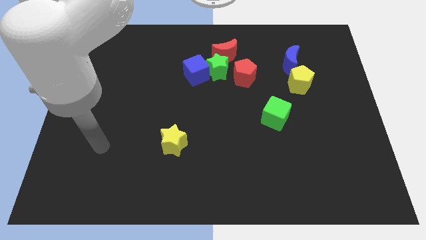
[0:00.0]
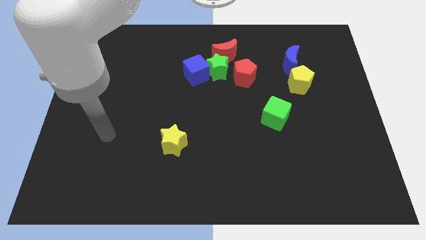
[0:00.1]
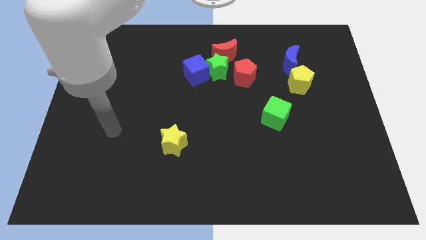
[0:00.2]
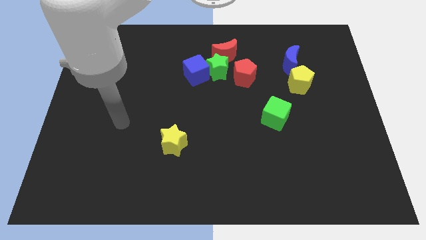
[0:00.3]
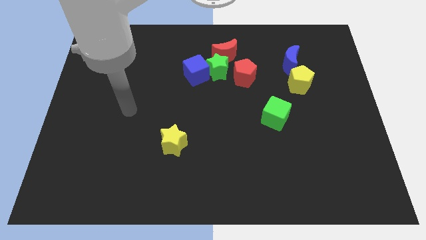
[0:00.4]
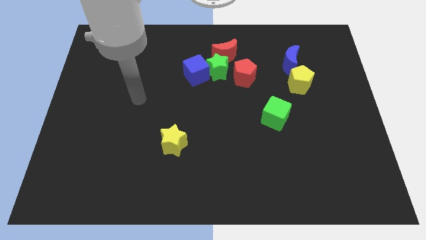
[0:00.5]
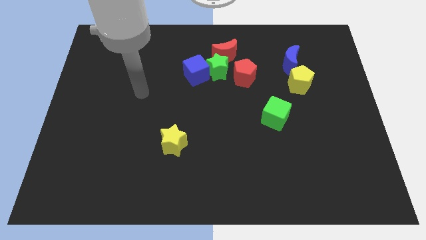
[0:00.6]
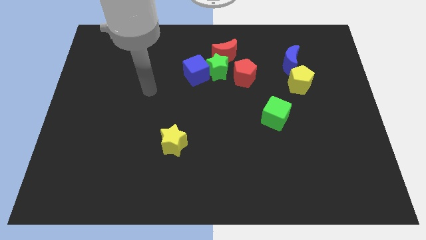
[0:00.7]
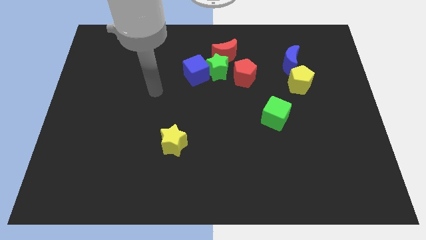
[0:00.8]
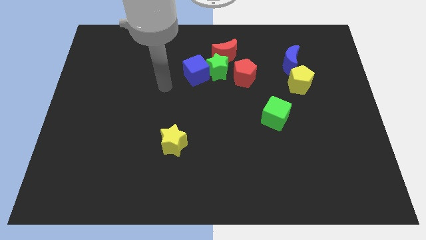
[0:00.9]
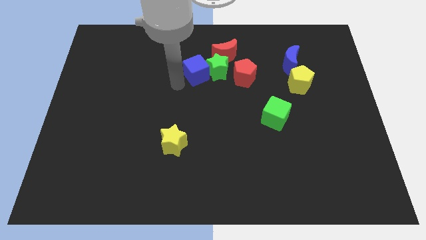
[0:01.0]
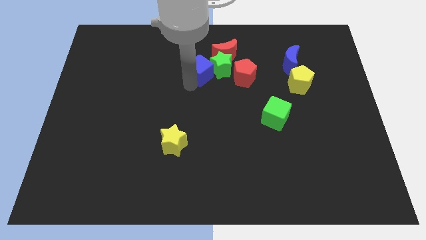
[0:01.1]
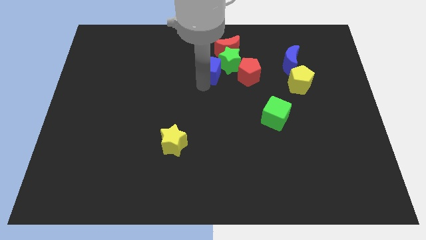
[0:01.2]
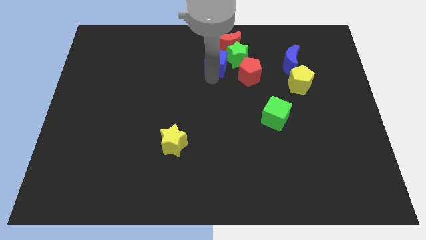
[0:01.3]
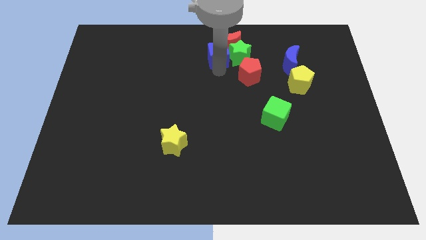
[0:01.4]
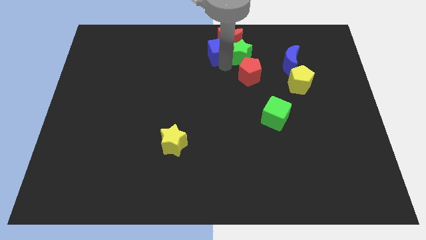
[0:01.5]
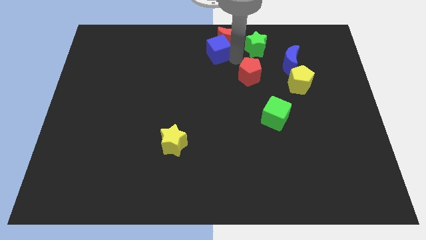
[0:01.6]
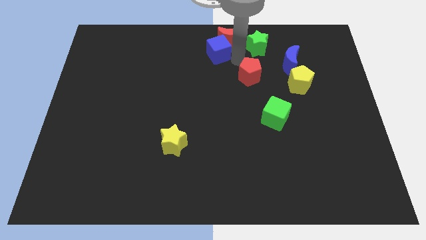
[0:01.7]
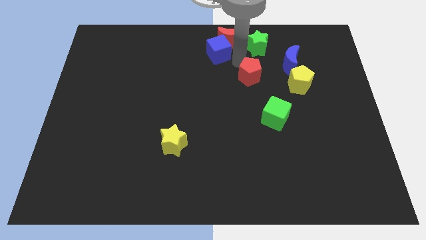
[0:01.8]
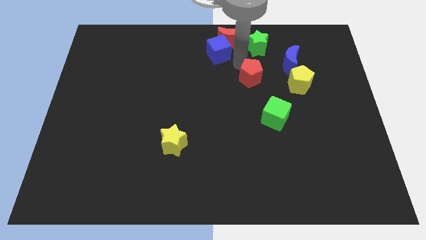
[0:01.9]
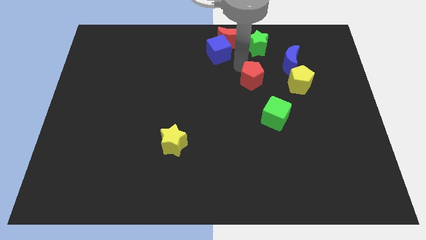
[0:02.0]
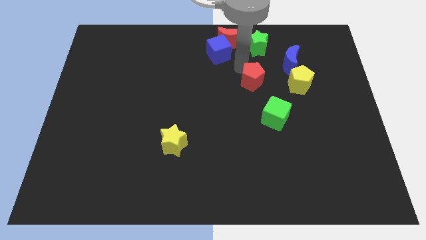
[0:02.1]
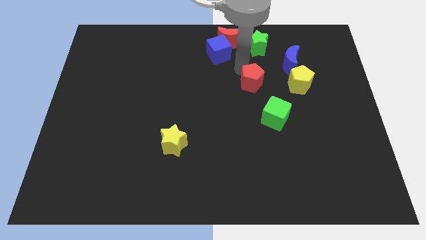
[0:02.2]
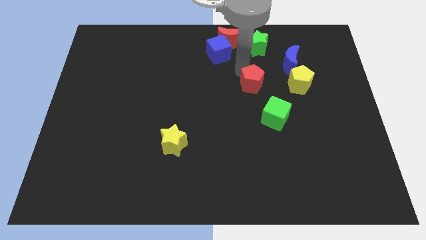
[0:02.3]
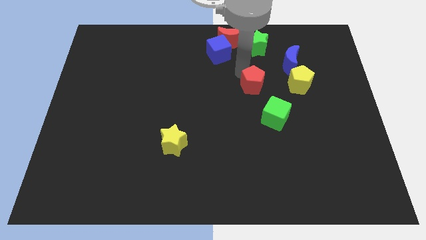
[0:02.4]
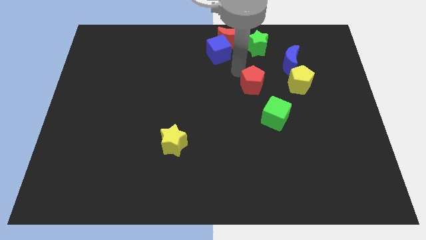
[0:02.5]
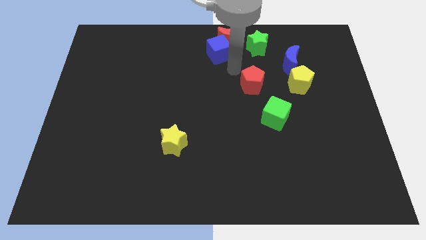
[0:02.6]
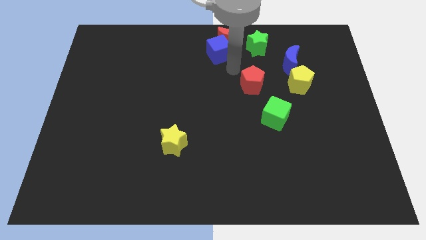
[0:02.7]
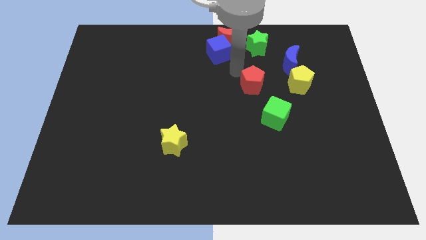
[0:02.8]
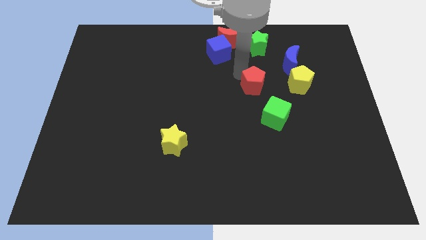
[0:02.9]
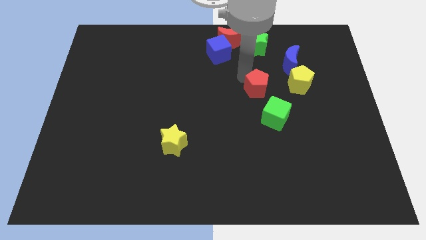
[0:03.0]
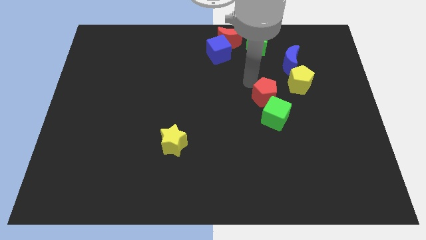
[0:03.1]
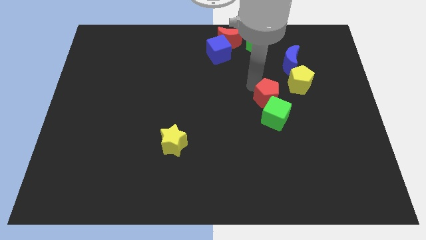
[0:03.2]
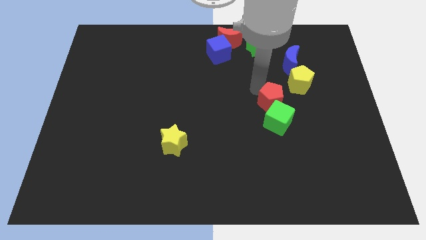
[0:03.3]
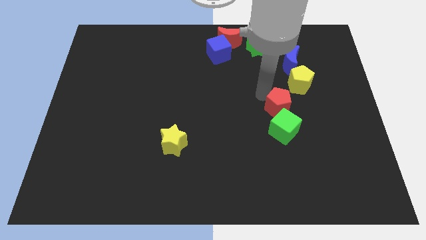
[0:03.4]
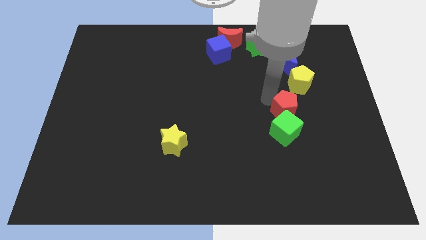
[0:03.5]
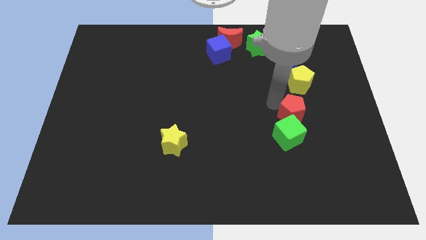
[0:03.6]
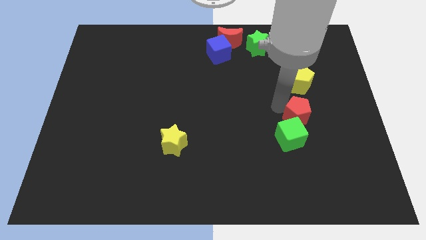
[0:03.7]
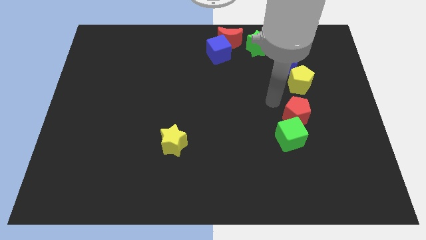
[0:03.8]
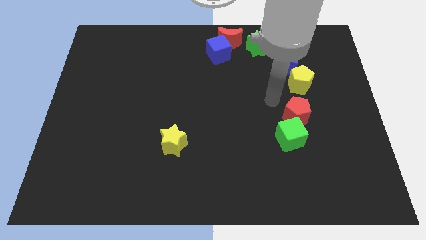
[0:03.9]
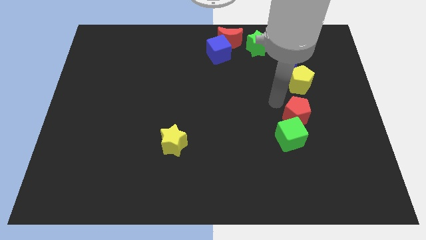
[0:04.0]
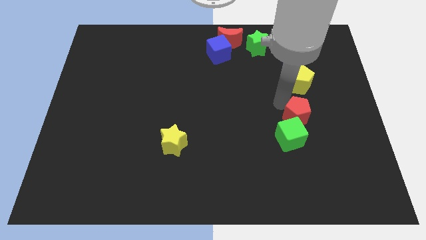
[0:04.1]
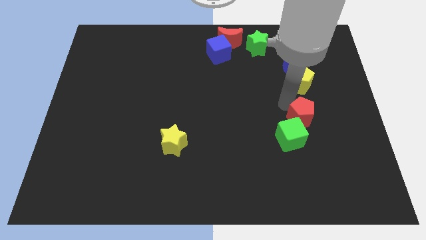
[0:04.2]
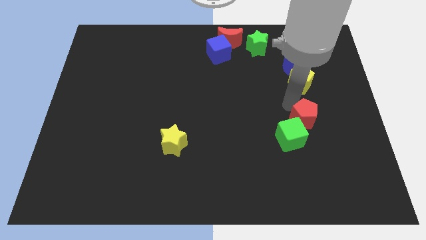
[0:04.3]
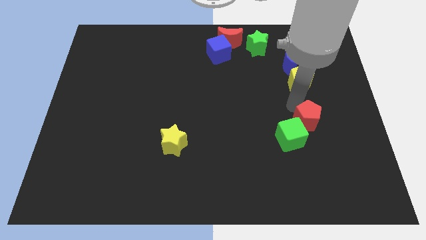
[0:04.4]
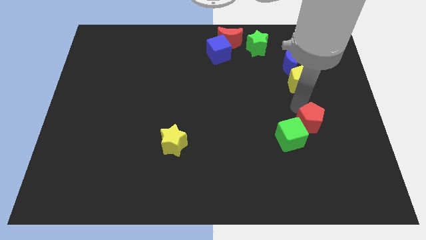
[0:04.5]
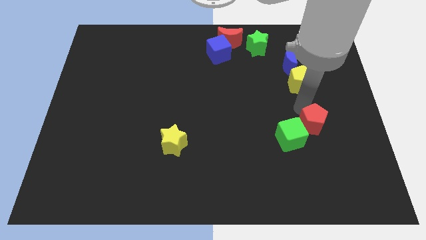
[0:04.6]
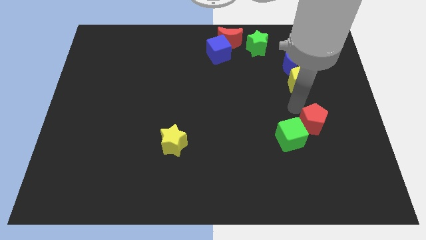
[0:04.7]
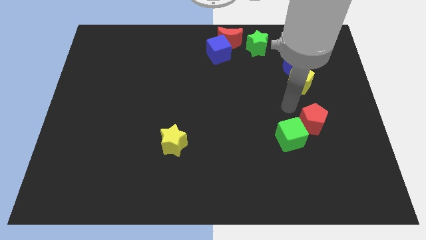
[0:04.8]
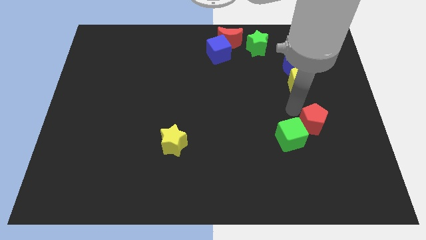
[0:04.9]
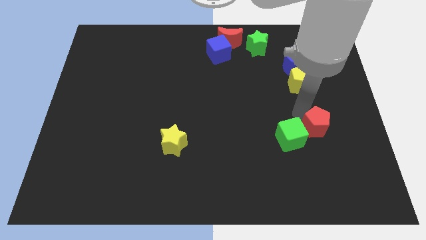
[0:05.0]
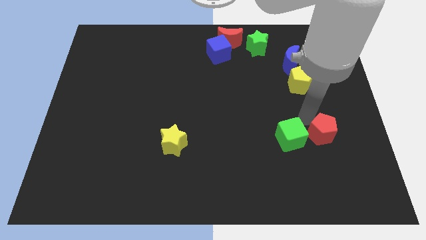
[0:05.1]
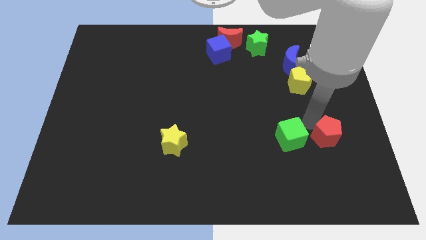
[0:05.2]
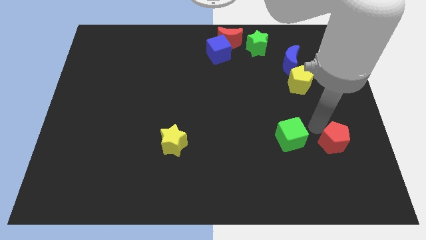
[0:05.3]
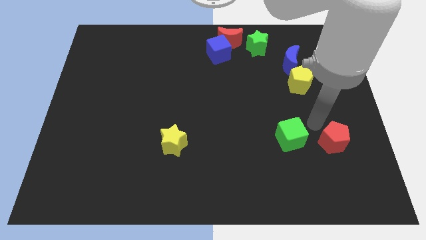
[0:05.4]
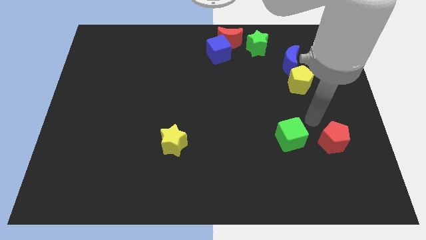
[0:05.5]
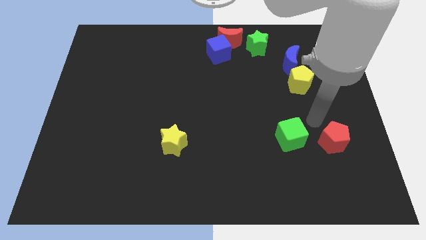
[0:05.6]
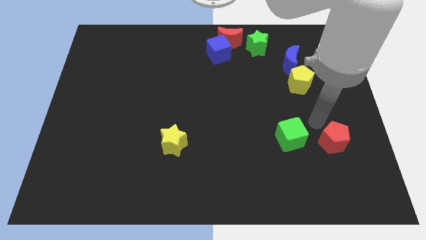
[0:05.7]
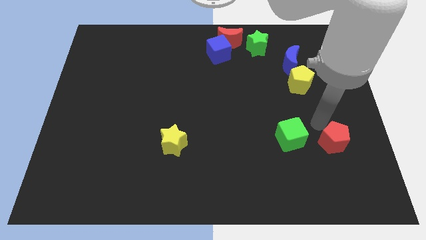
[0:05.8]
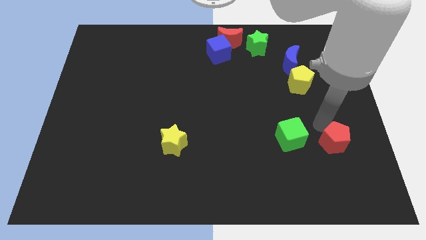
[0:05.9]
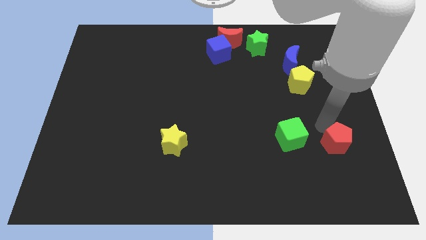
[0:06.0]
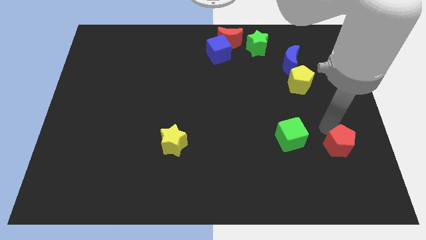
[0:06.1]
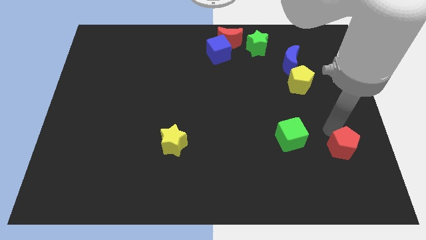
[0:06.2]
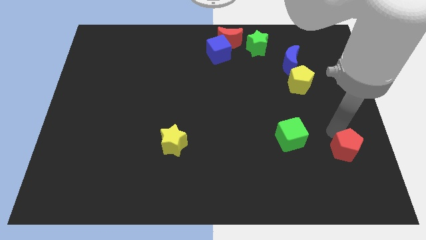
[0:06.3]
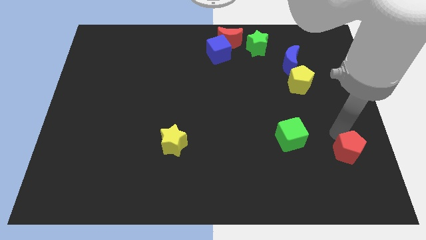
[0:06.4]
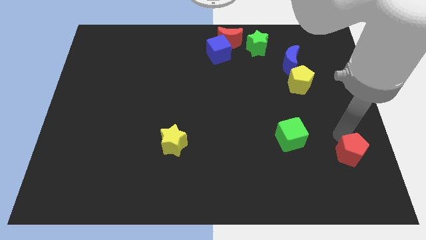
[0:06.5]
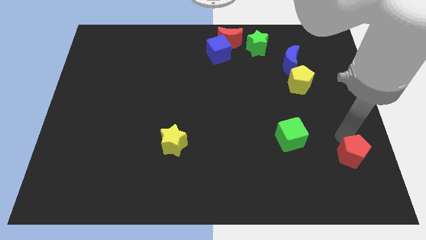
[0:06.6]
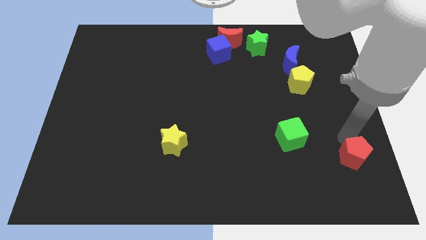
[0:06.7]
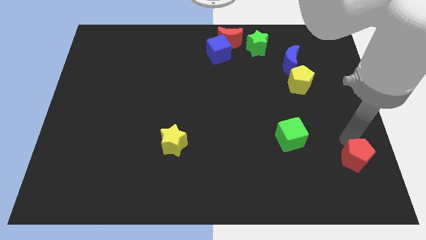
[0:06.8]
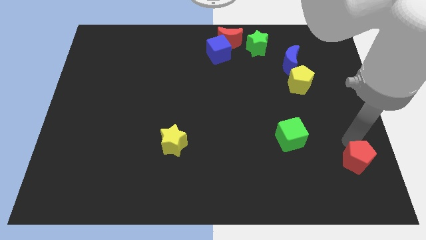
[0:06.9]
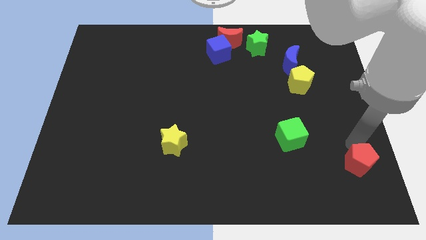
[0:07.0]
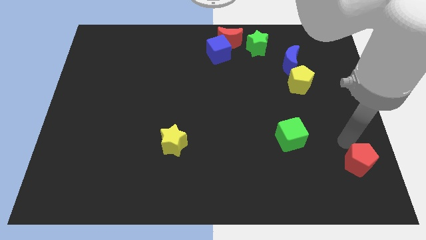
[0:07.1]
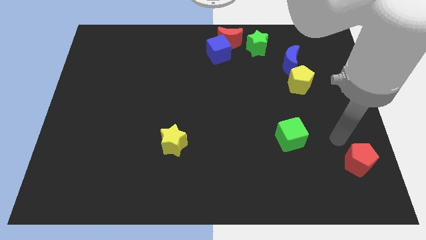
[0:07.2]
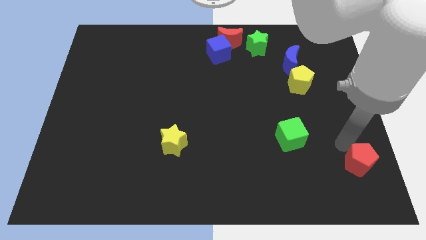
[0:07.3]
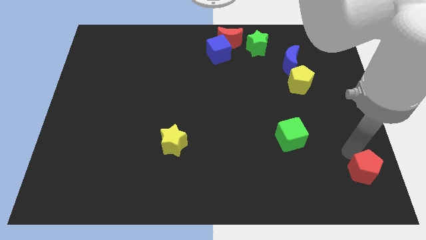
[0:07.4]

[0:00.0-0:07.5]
put the red pentagon to the bottom right of the board
